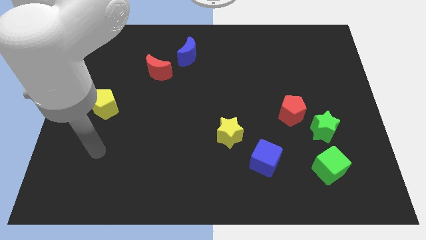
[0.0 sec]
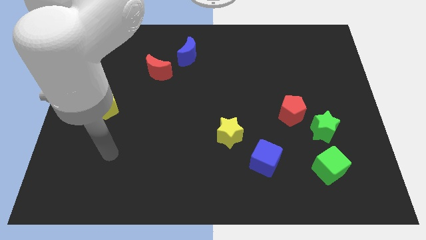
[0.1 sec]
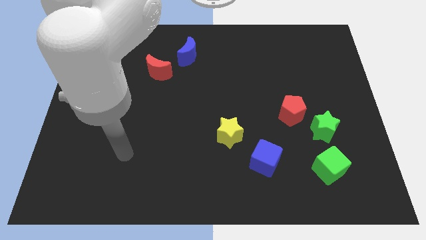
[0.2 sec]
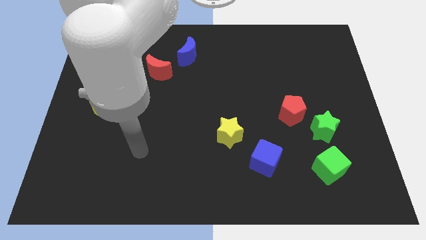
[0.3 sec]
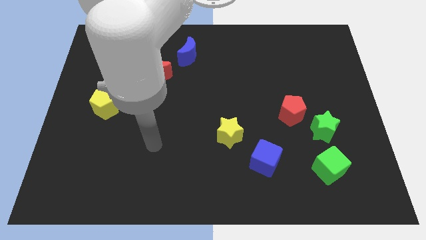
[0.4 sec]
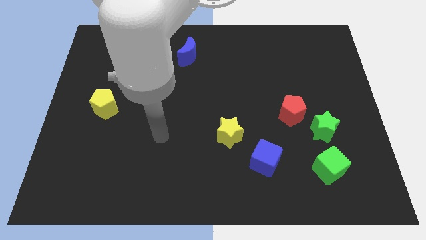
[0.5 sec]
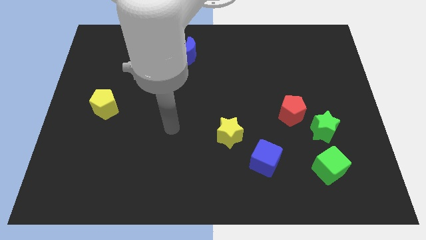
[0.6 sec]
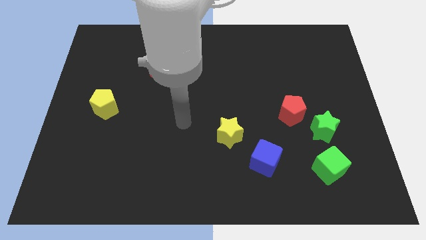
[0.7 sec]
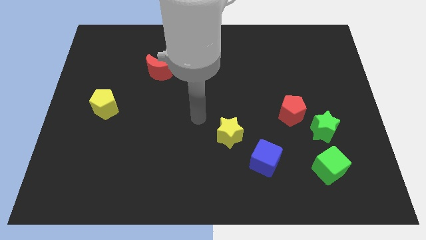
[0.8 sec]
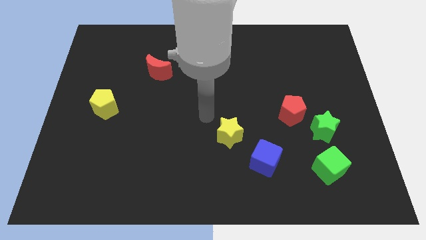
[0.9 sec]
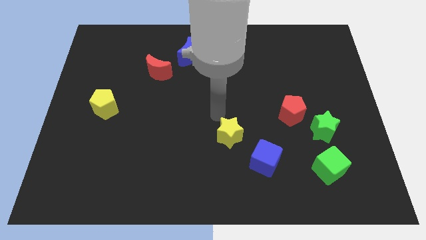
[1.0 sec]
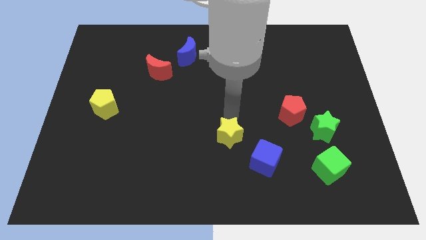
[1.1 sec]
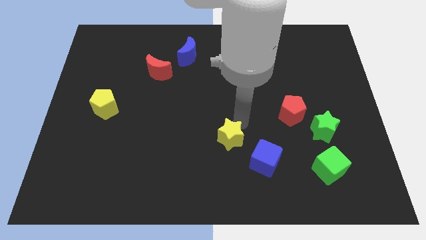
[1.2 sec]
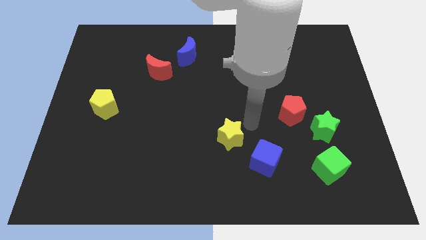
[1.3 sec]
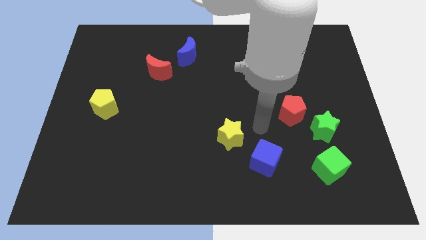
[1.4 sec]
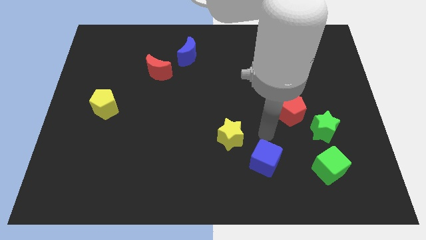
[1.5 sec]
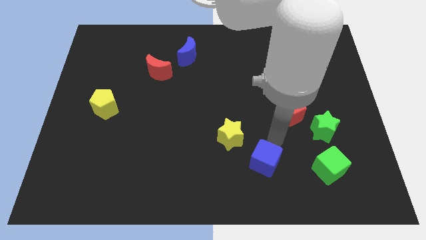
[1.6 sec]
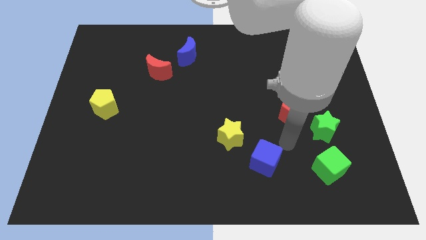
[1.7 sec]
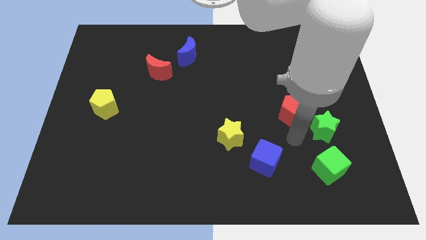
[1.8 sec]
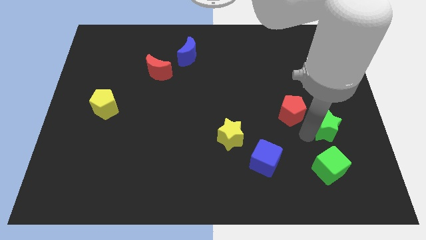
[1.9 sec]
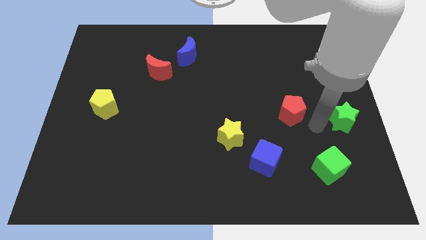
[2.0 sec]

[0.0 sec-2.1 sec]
pull the red pentagon apart from the green star

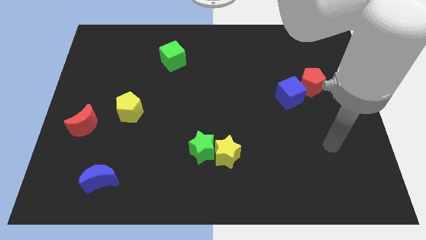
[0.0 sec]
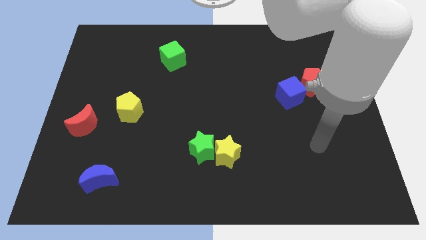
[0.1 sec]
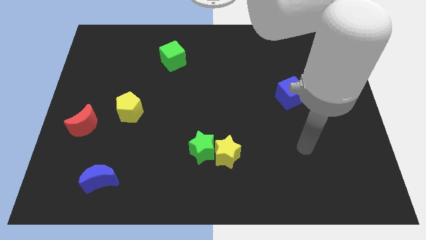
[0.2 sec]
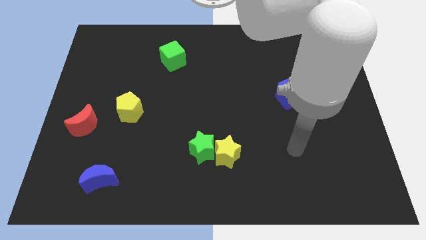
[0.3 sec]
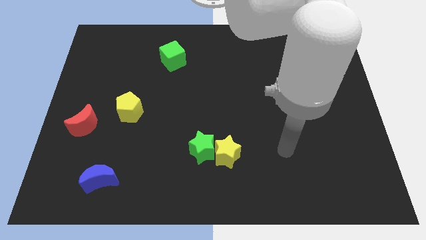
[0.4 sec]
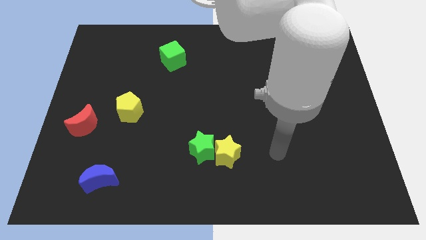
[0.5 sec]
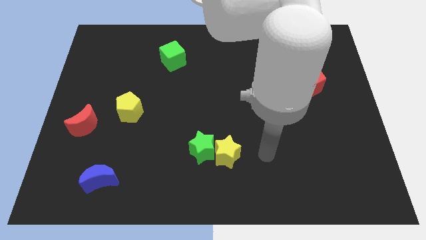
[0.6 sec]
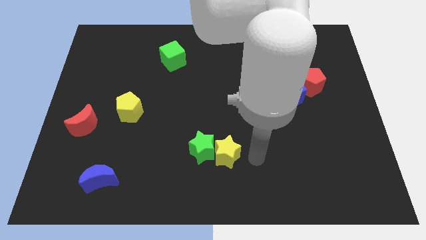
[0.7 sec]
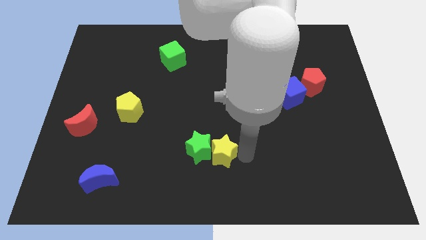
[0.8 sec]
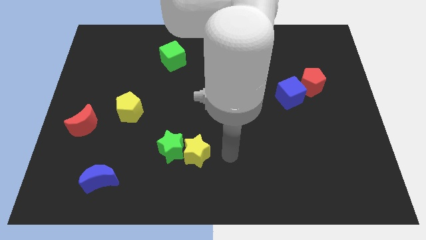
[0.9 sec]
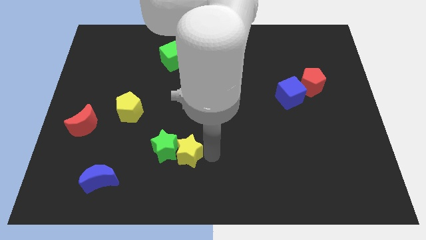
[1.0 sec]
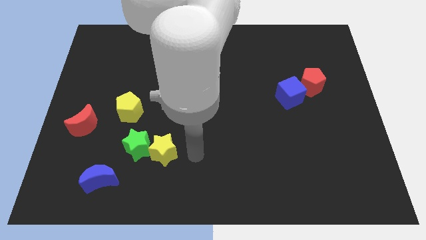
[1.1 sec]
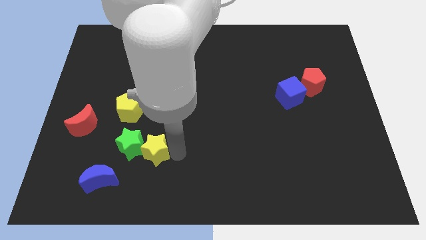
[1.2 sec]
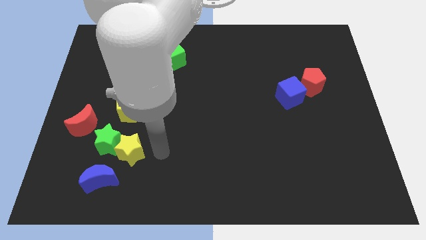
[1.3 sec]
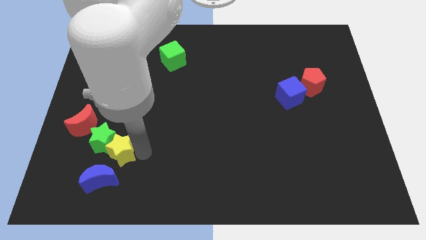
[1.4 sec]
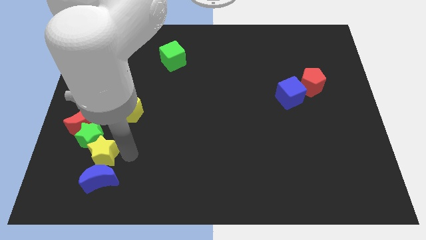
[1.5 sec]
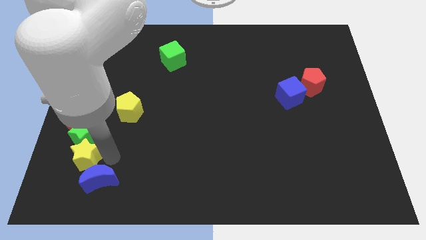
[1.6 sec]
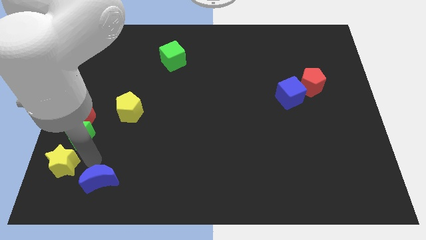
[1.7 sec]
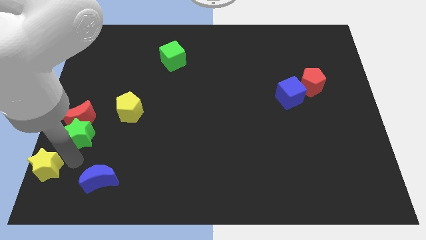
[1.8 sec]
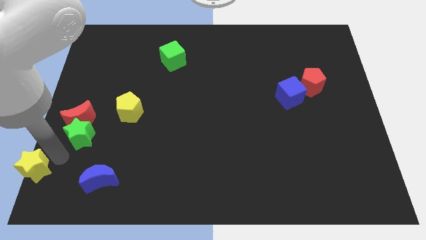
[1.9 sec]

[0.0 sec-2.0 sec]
separate the green star from the yellow star

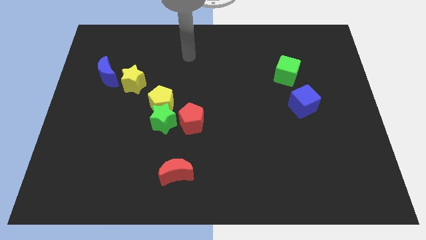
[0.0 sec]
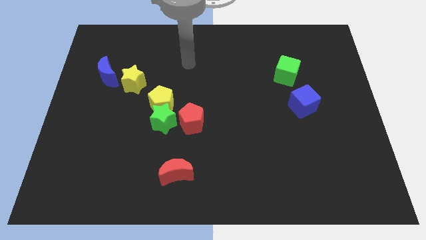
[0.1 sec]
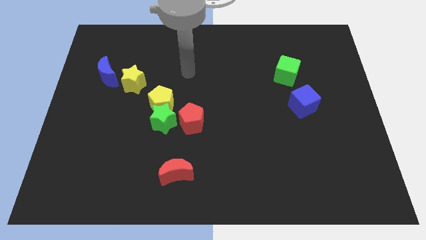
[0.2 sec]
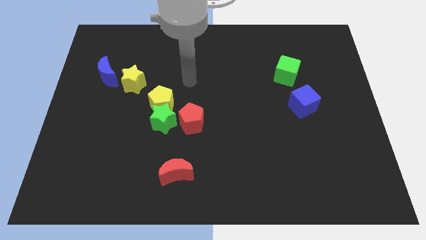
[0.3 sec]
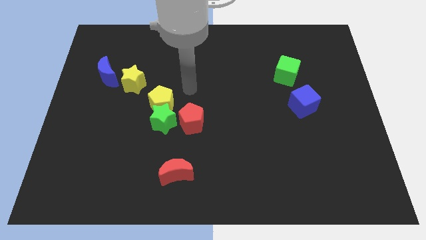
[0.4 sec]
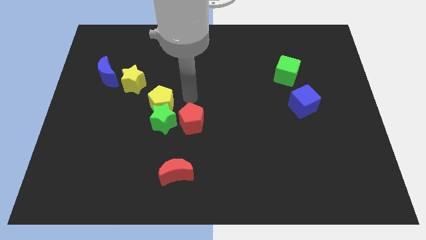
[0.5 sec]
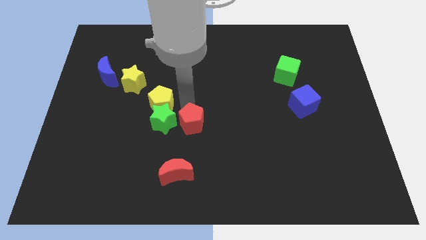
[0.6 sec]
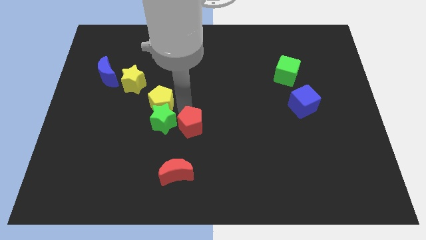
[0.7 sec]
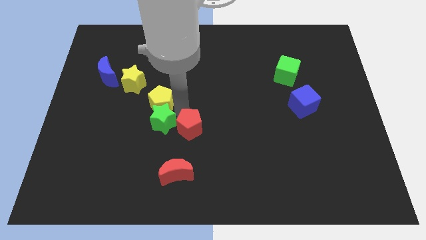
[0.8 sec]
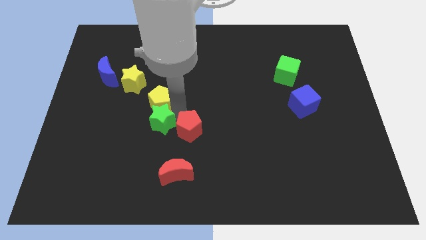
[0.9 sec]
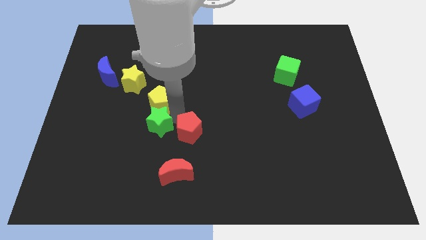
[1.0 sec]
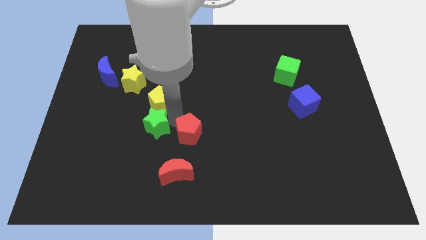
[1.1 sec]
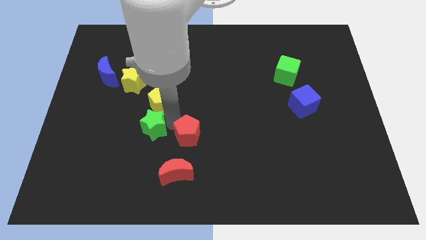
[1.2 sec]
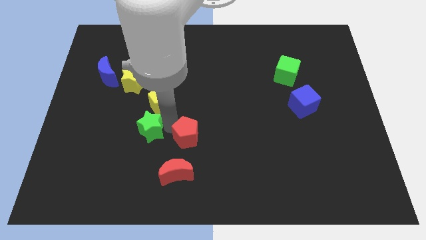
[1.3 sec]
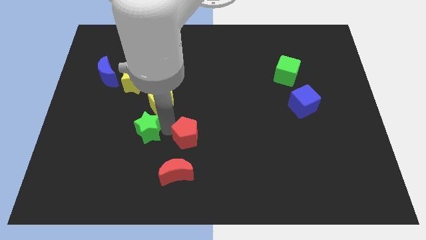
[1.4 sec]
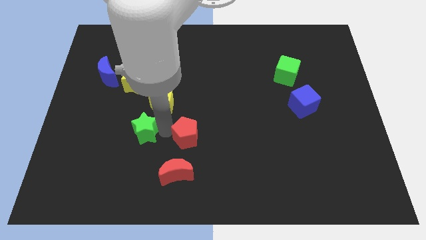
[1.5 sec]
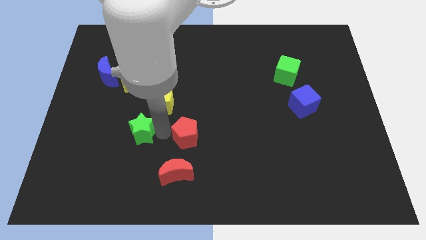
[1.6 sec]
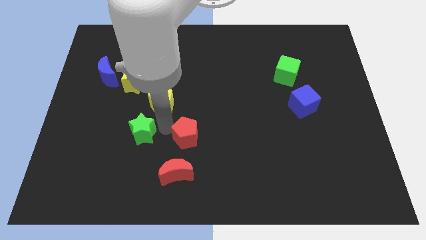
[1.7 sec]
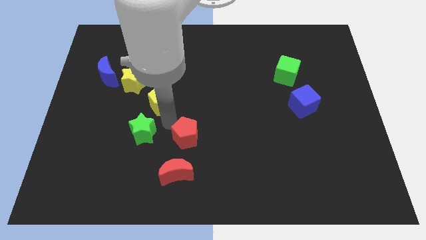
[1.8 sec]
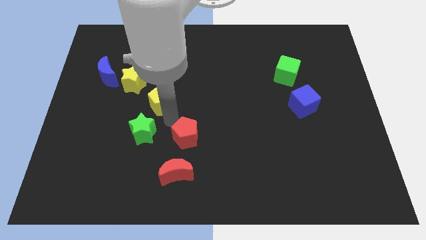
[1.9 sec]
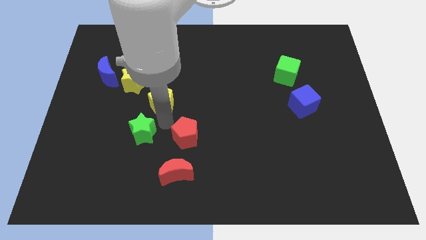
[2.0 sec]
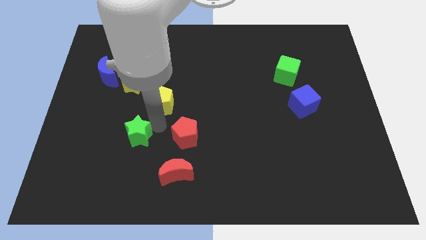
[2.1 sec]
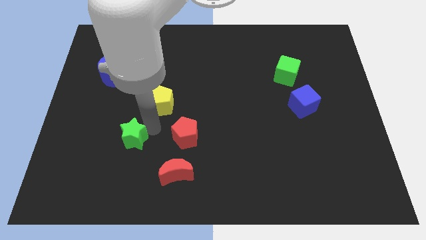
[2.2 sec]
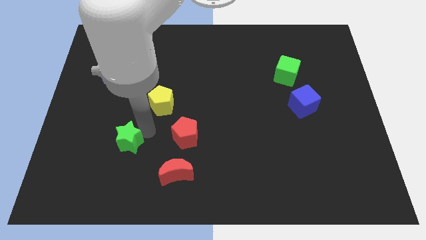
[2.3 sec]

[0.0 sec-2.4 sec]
move the green star away from the yellow pentagon and red pentagon

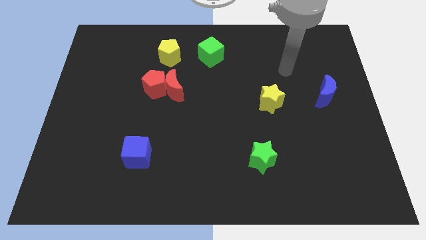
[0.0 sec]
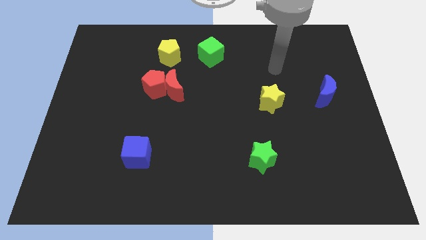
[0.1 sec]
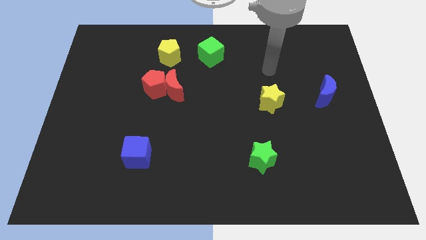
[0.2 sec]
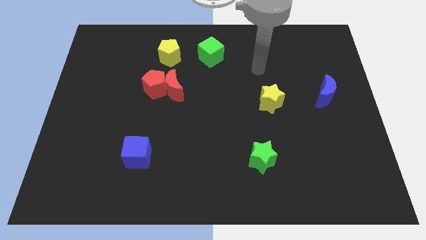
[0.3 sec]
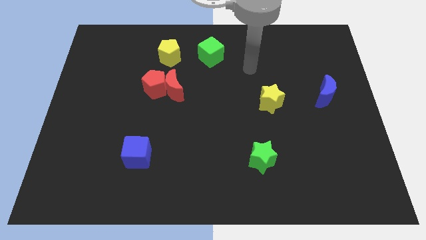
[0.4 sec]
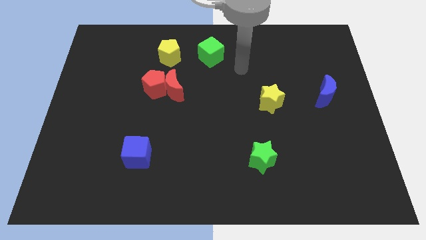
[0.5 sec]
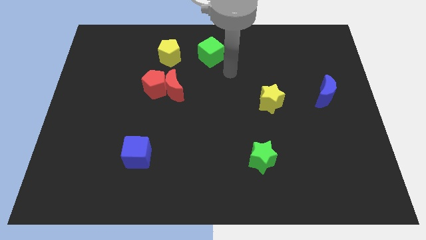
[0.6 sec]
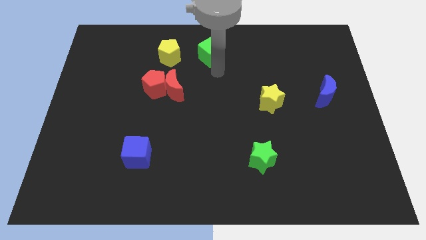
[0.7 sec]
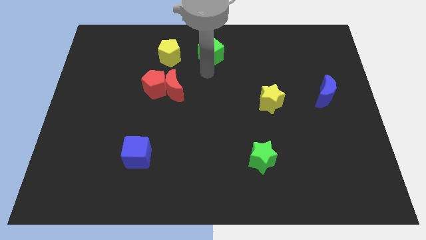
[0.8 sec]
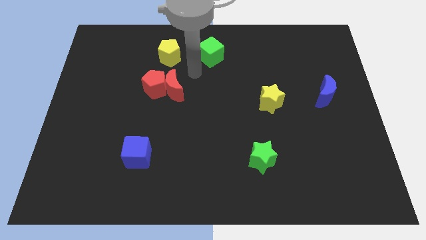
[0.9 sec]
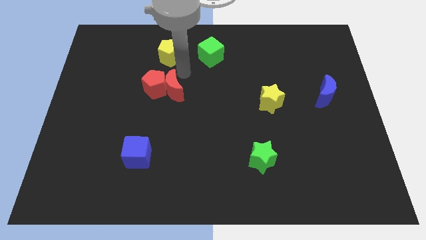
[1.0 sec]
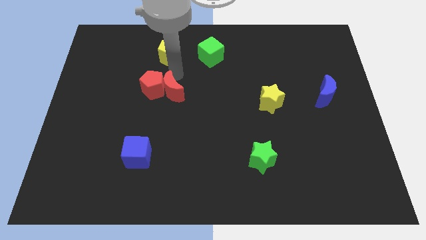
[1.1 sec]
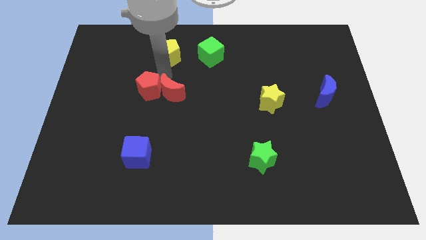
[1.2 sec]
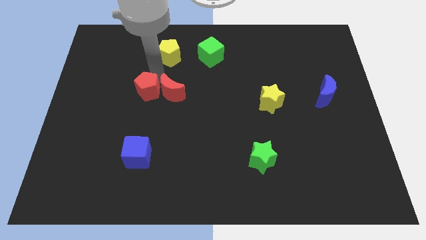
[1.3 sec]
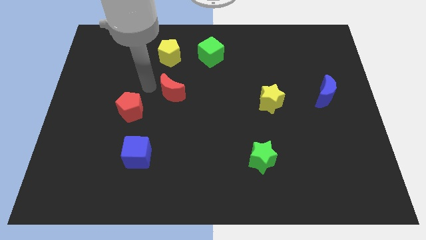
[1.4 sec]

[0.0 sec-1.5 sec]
move the red moon away from the red pentagon

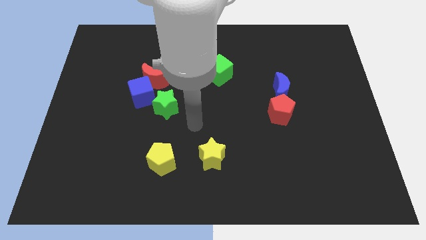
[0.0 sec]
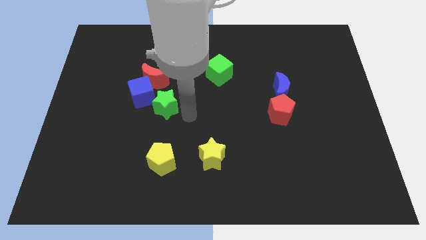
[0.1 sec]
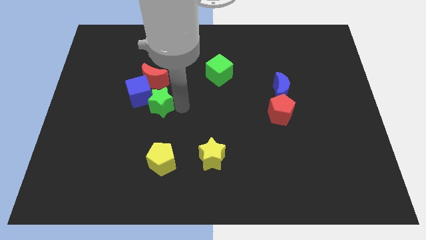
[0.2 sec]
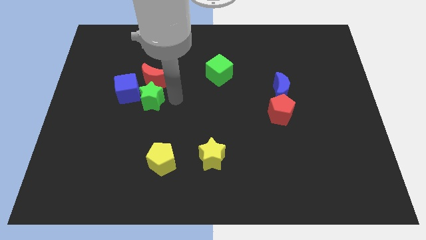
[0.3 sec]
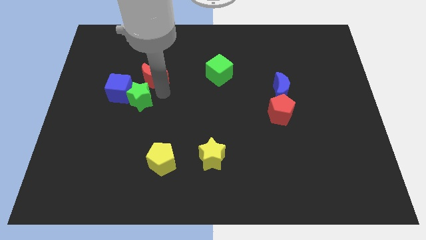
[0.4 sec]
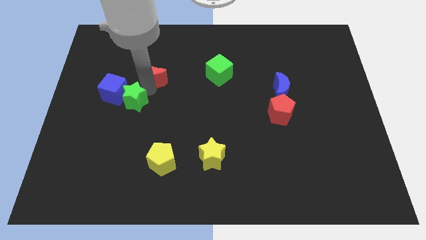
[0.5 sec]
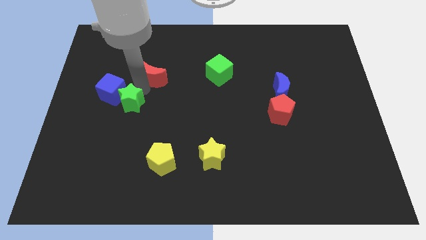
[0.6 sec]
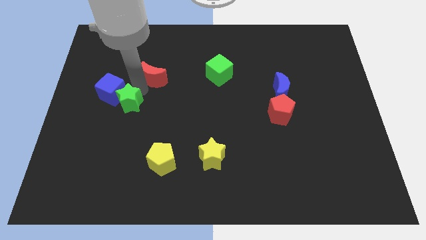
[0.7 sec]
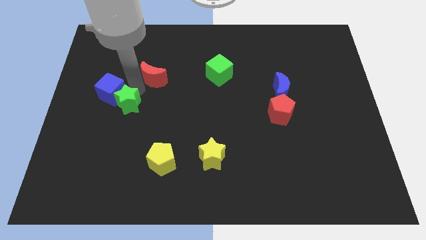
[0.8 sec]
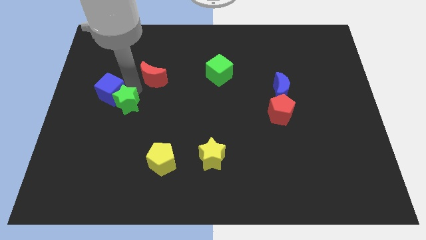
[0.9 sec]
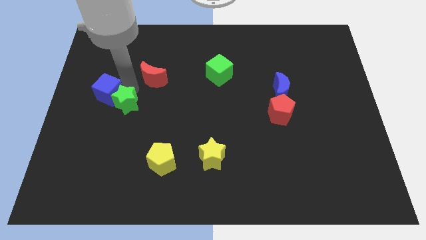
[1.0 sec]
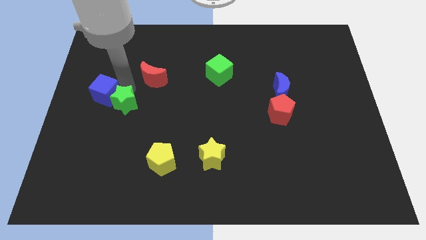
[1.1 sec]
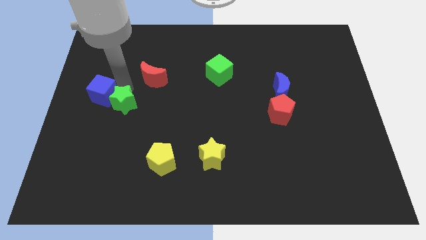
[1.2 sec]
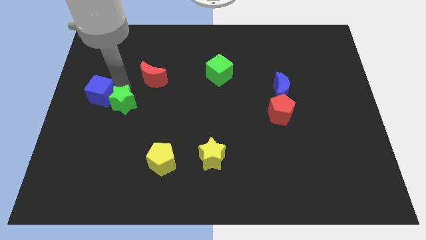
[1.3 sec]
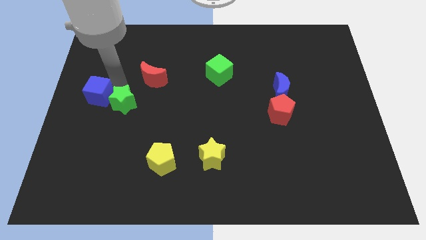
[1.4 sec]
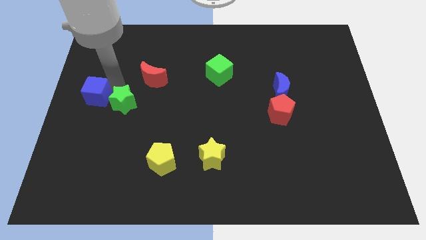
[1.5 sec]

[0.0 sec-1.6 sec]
separate the blue cube from the red moon and green star
